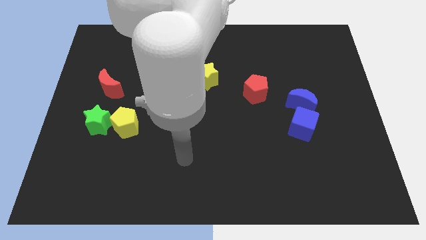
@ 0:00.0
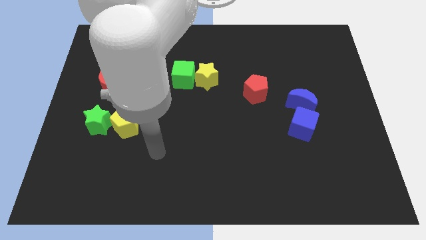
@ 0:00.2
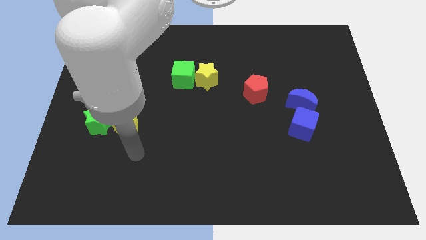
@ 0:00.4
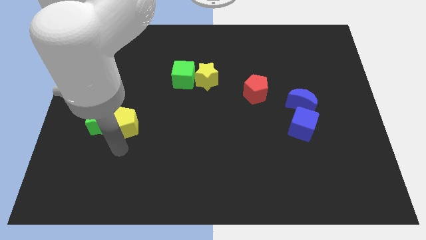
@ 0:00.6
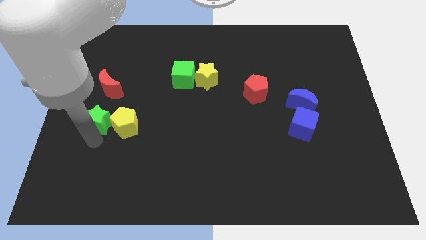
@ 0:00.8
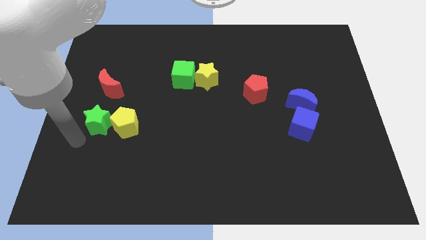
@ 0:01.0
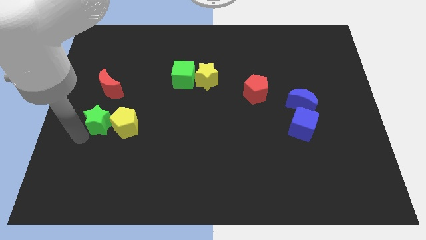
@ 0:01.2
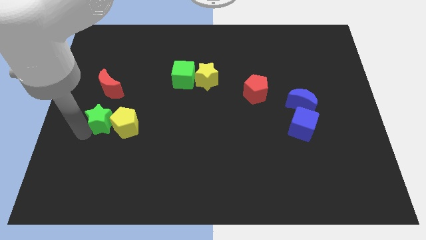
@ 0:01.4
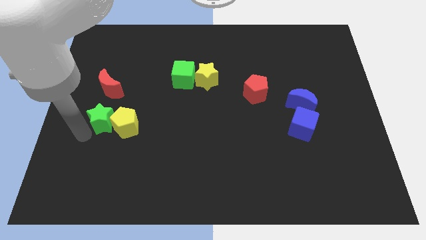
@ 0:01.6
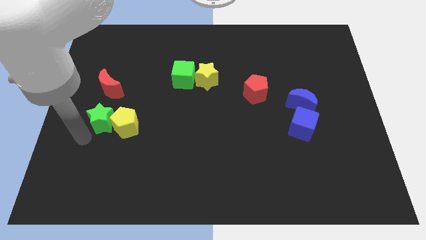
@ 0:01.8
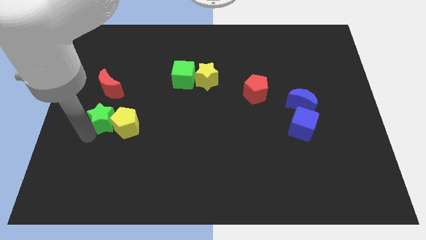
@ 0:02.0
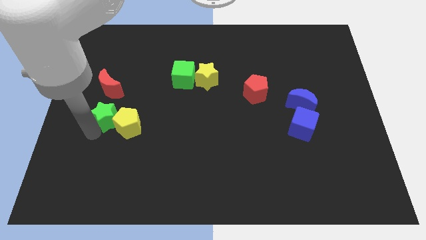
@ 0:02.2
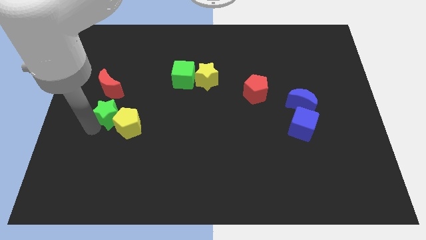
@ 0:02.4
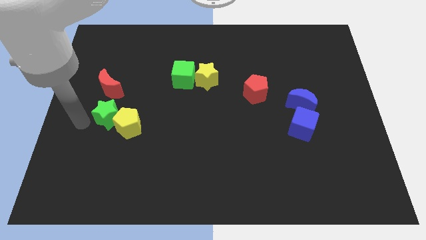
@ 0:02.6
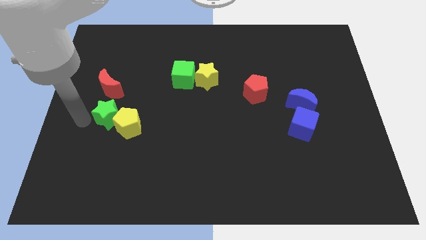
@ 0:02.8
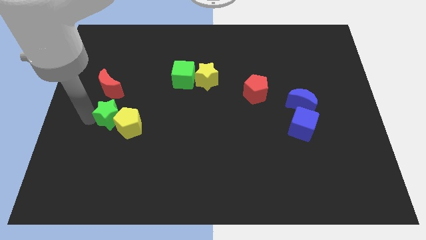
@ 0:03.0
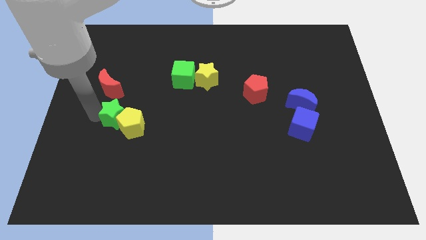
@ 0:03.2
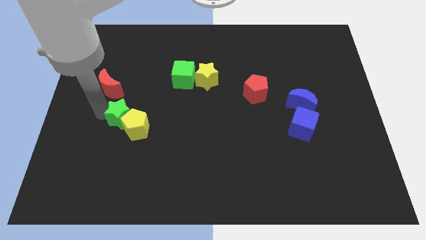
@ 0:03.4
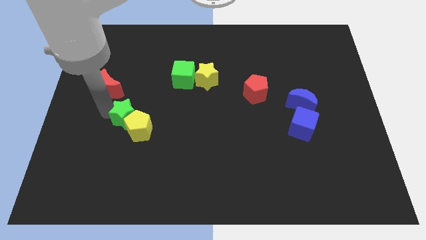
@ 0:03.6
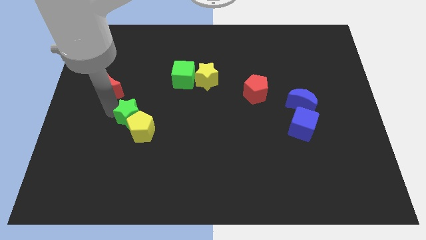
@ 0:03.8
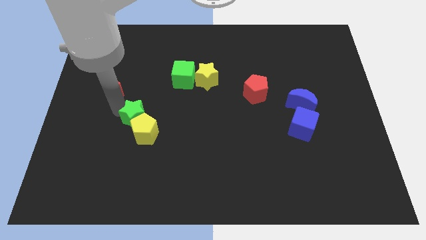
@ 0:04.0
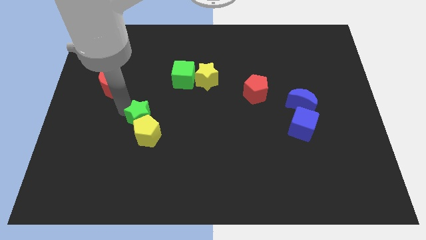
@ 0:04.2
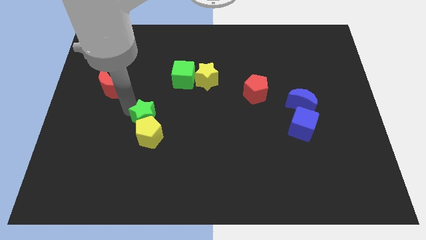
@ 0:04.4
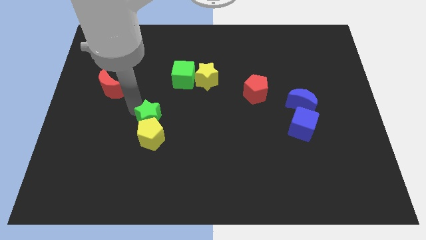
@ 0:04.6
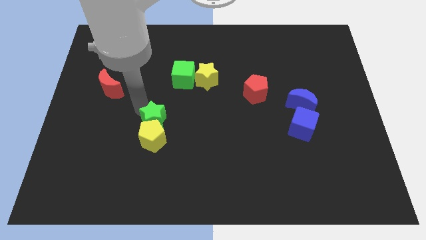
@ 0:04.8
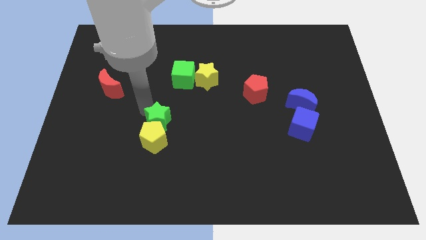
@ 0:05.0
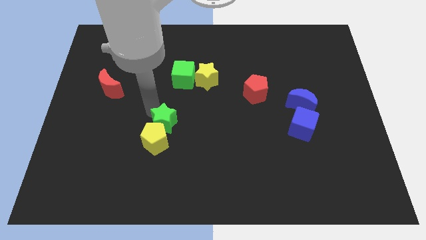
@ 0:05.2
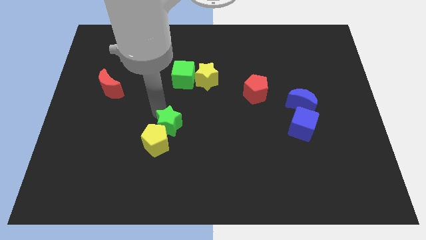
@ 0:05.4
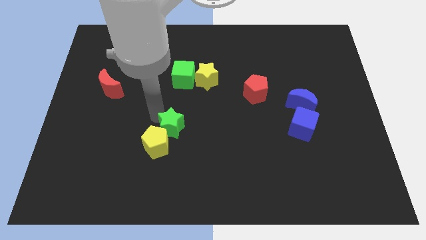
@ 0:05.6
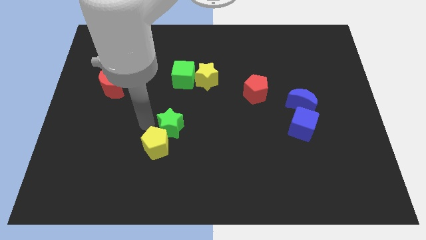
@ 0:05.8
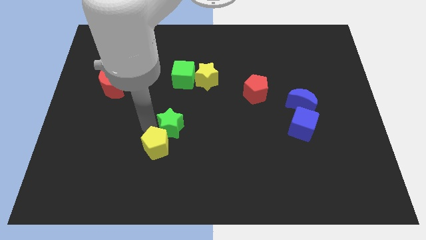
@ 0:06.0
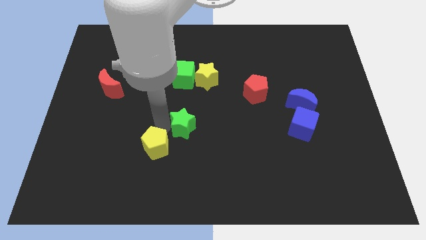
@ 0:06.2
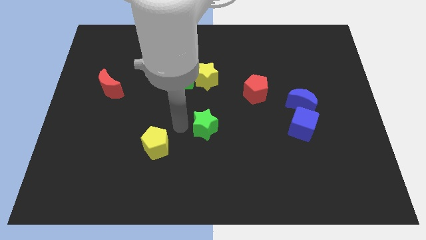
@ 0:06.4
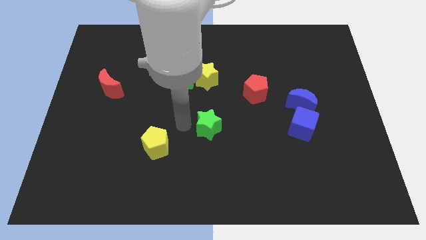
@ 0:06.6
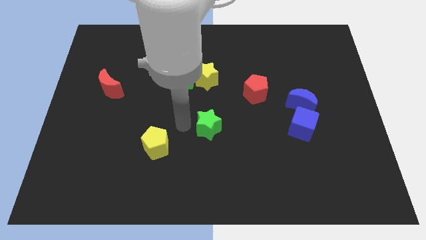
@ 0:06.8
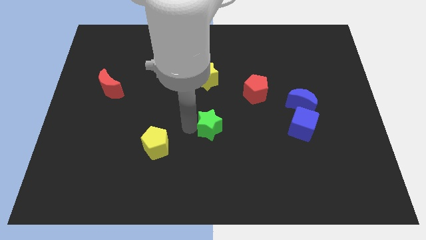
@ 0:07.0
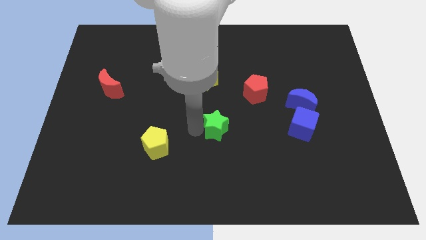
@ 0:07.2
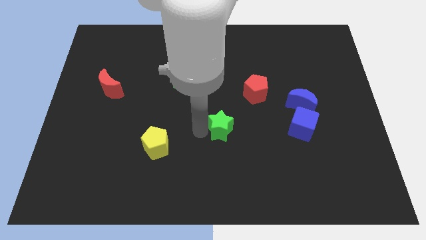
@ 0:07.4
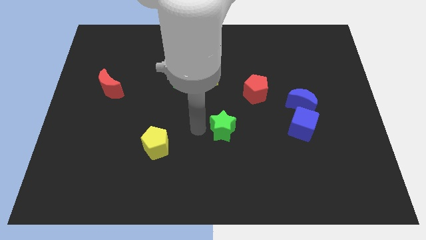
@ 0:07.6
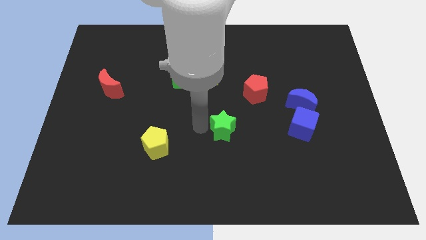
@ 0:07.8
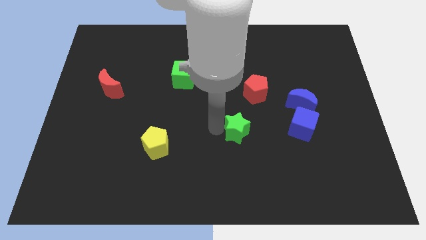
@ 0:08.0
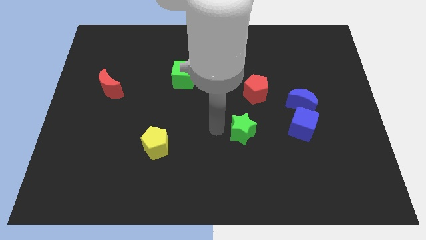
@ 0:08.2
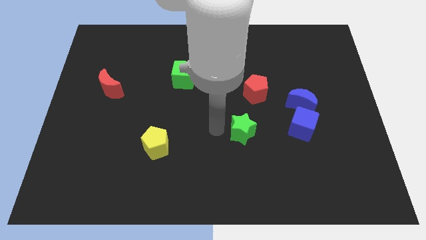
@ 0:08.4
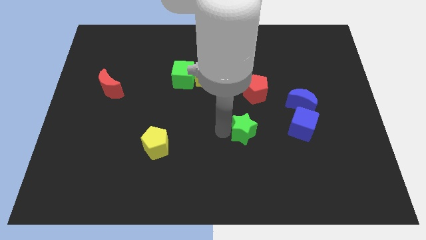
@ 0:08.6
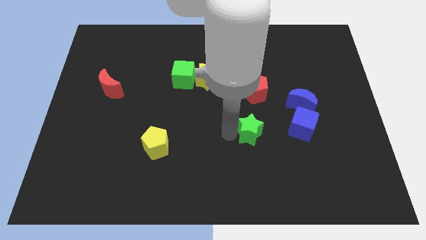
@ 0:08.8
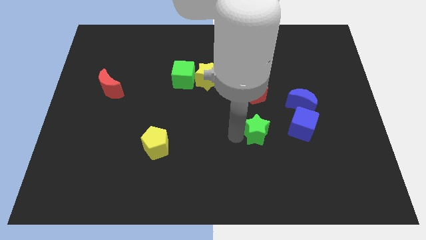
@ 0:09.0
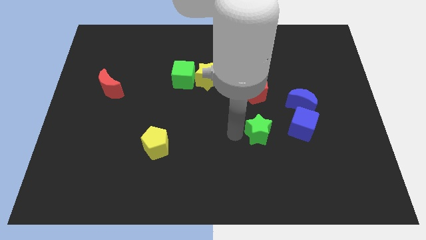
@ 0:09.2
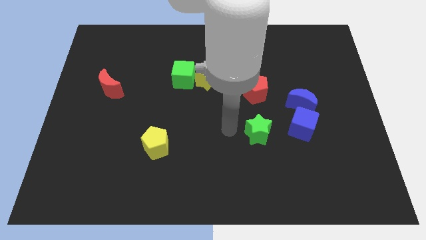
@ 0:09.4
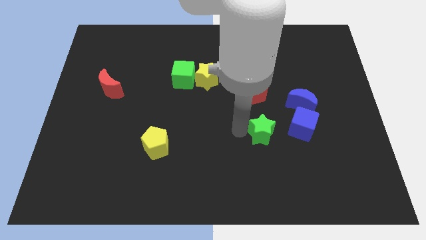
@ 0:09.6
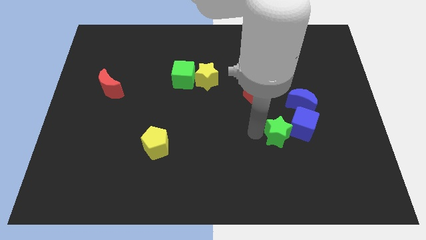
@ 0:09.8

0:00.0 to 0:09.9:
push the green star next to the blue cube

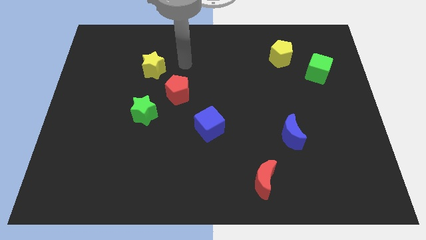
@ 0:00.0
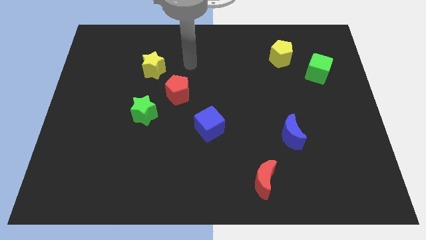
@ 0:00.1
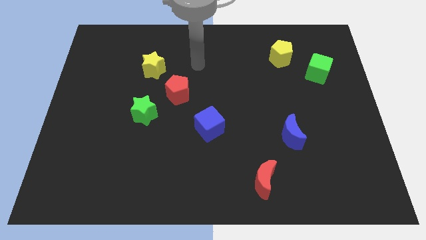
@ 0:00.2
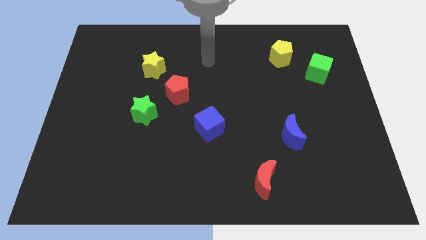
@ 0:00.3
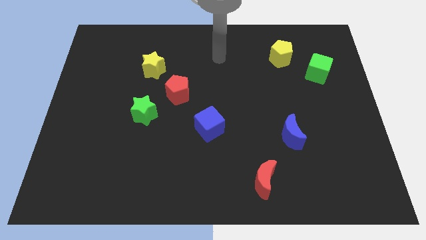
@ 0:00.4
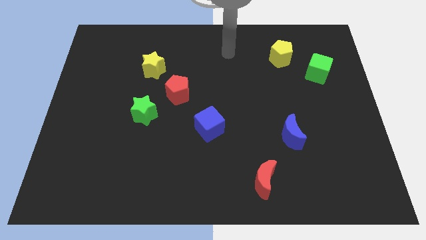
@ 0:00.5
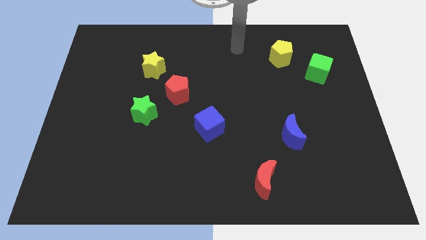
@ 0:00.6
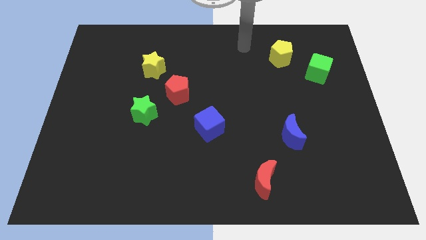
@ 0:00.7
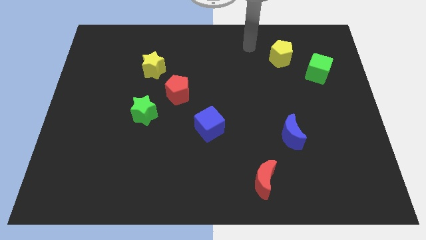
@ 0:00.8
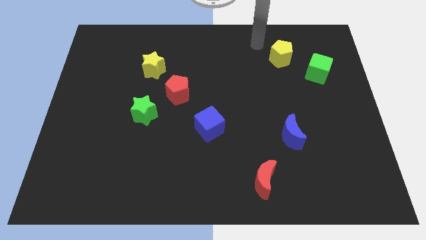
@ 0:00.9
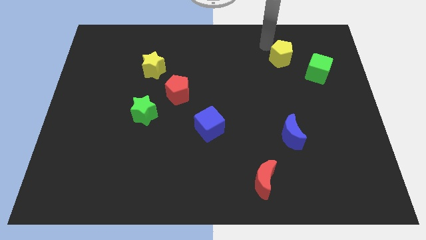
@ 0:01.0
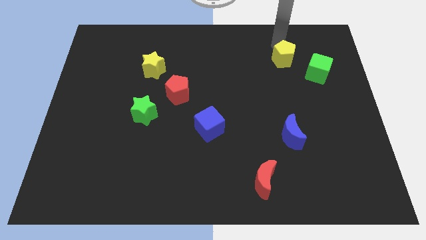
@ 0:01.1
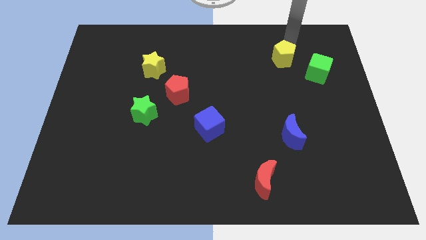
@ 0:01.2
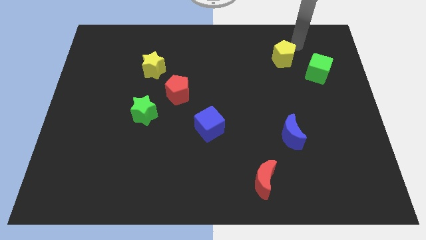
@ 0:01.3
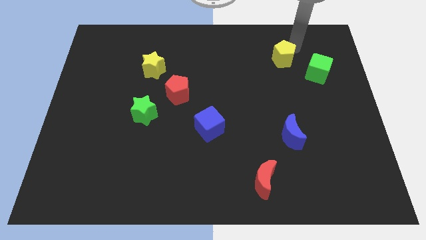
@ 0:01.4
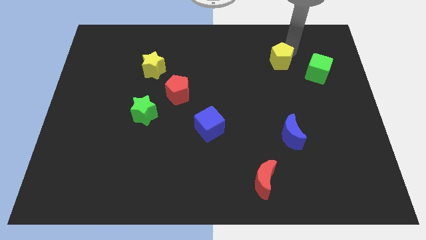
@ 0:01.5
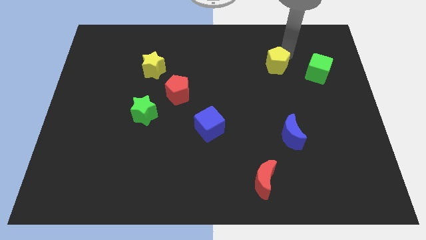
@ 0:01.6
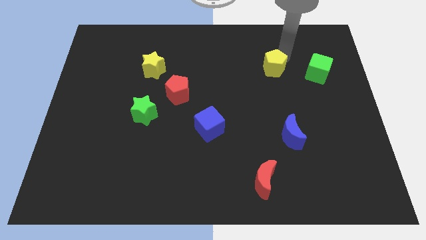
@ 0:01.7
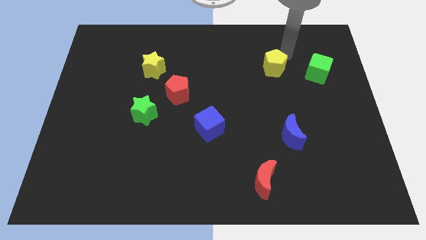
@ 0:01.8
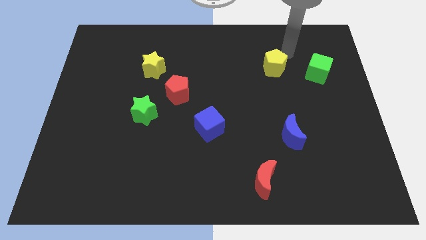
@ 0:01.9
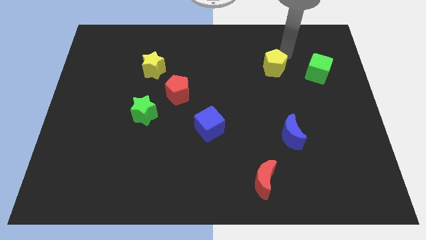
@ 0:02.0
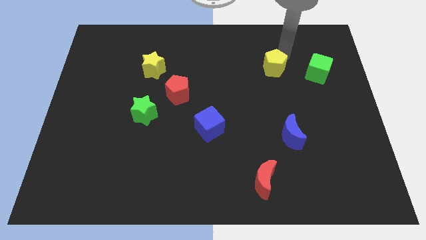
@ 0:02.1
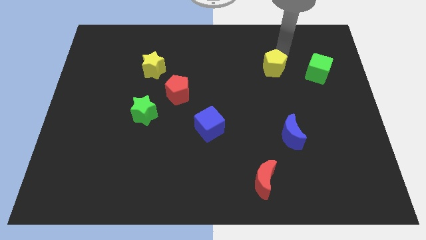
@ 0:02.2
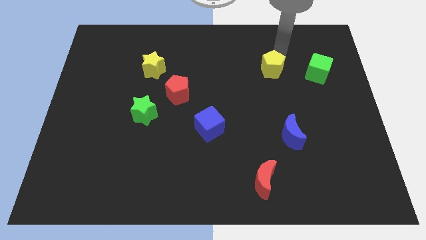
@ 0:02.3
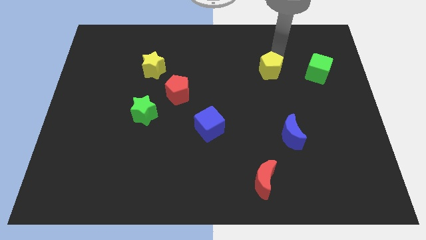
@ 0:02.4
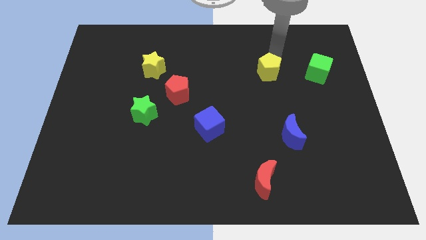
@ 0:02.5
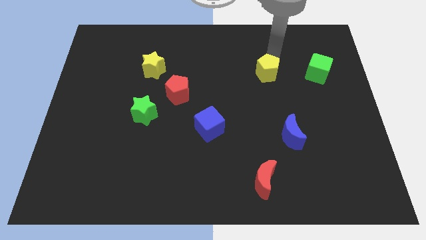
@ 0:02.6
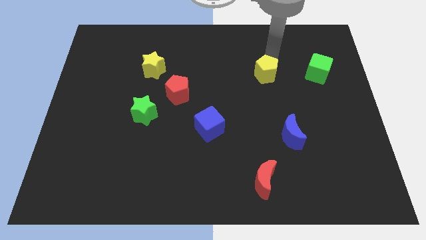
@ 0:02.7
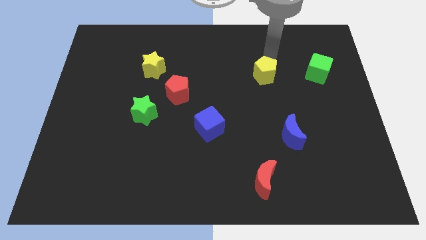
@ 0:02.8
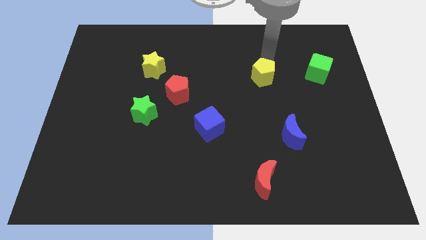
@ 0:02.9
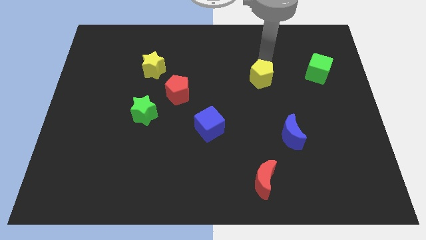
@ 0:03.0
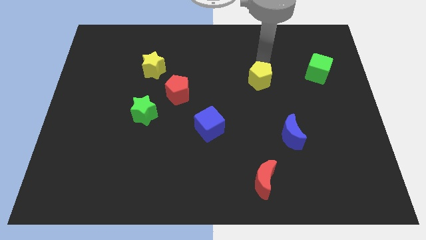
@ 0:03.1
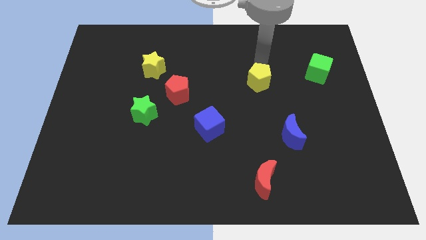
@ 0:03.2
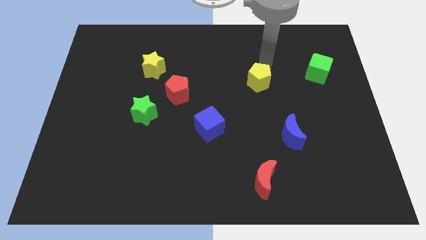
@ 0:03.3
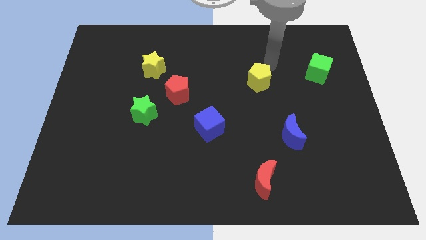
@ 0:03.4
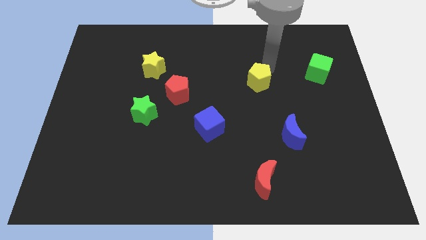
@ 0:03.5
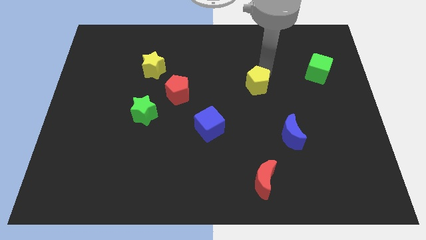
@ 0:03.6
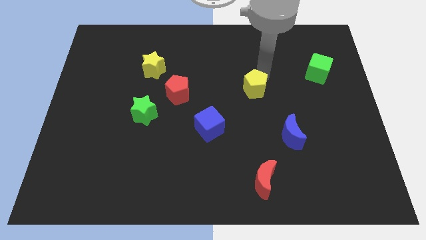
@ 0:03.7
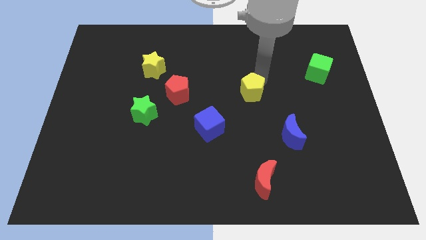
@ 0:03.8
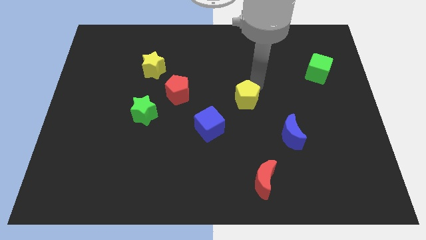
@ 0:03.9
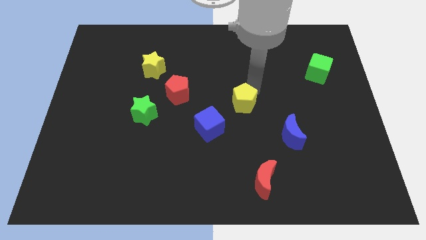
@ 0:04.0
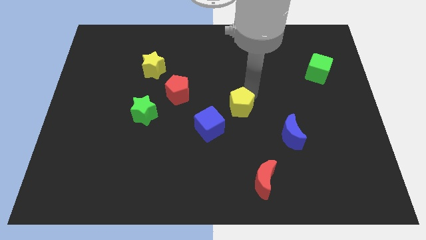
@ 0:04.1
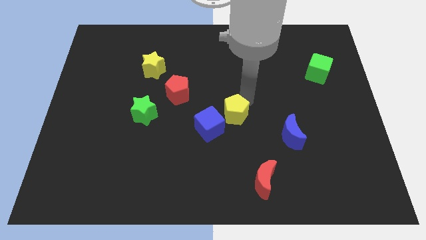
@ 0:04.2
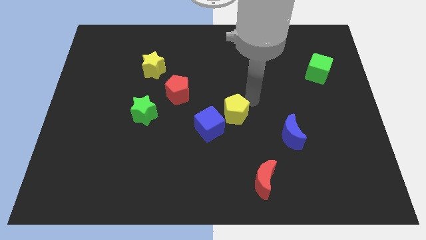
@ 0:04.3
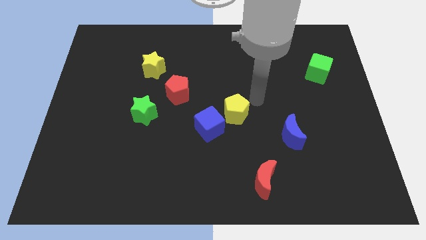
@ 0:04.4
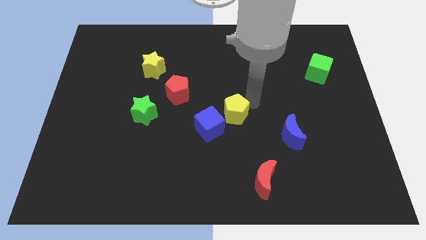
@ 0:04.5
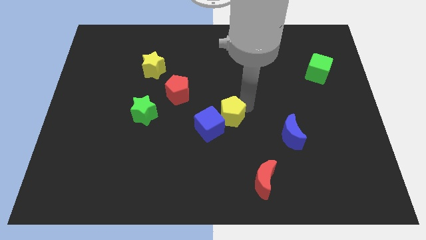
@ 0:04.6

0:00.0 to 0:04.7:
slide the yellow pentagon next to the blue cube
